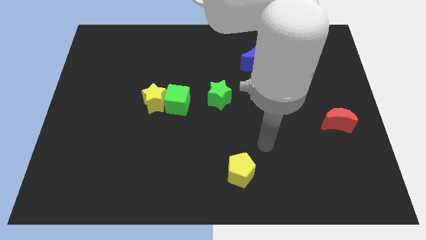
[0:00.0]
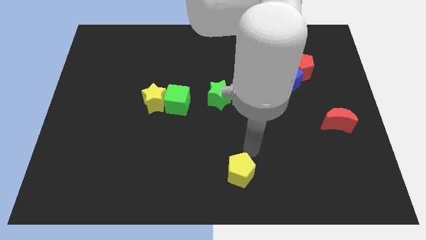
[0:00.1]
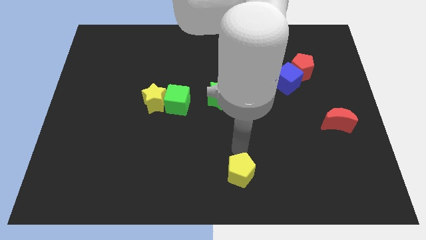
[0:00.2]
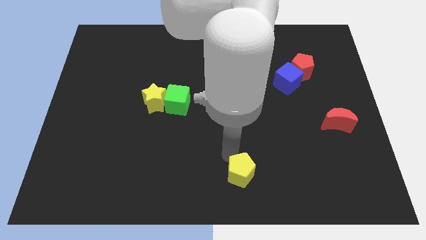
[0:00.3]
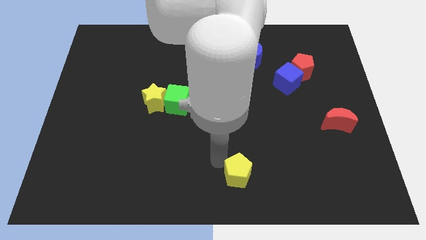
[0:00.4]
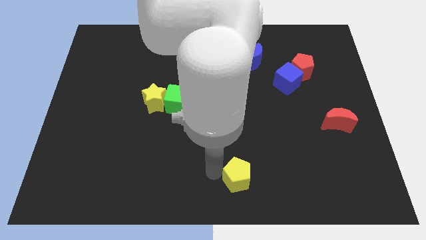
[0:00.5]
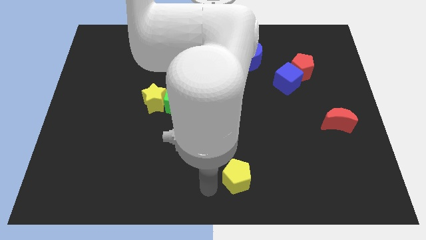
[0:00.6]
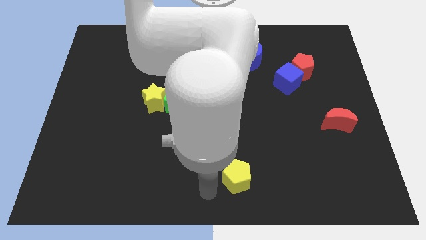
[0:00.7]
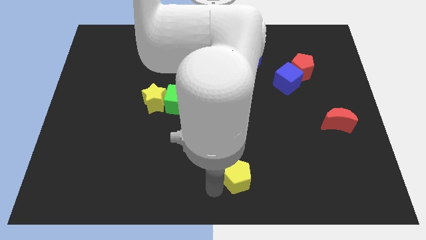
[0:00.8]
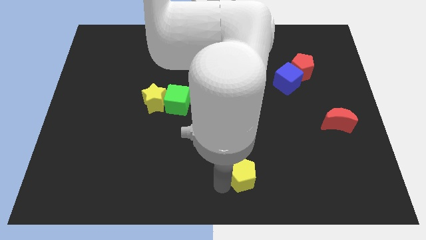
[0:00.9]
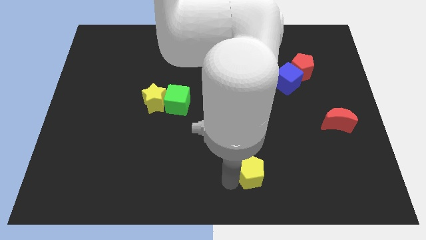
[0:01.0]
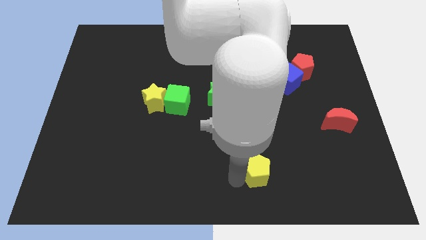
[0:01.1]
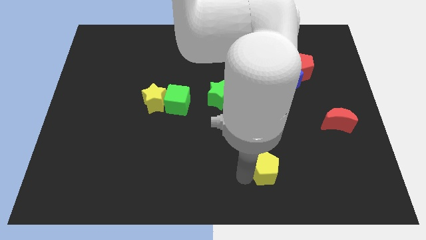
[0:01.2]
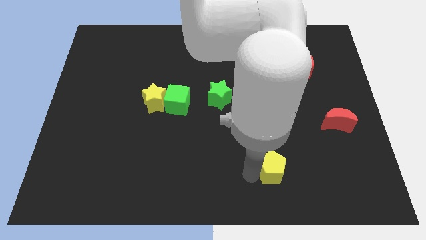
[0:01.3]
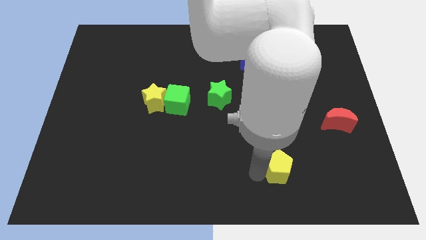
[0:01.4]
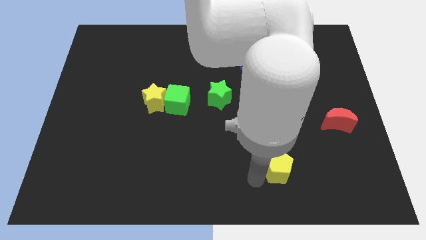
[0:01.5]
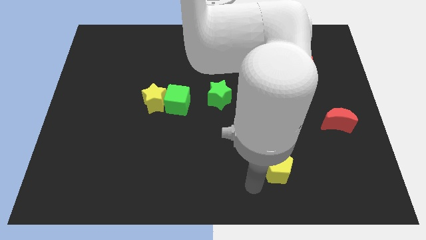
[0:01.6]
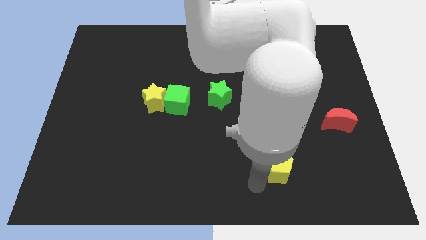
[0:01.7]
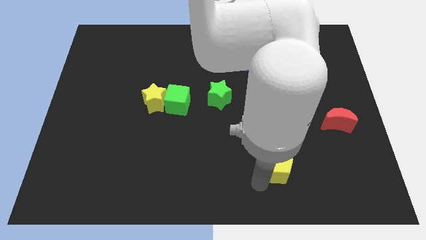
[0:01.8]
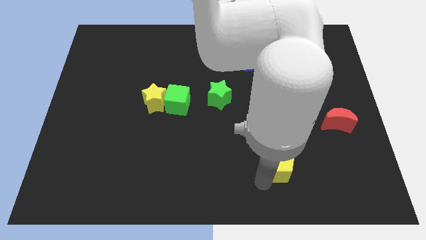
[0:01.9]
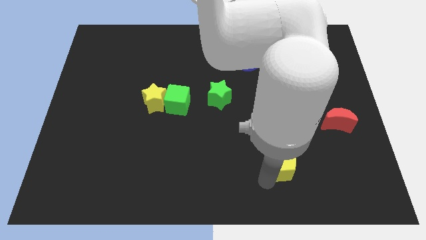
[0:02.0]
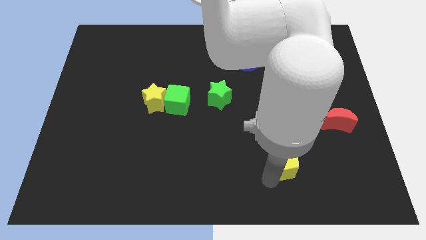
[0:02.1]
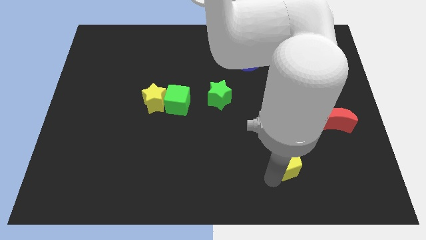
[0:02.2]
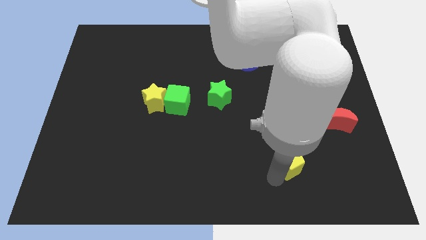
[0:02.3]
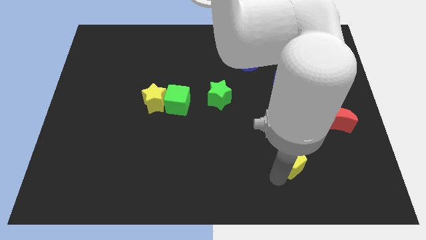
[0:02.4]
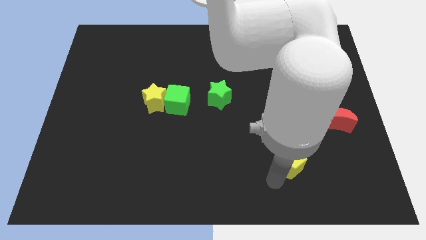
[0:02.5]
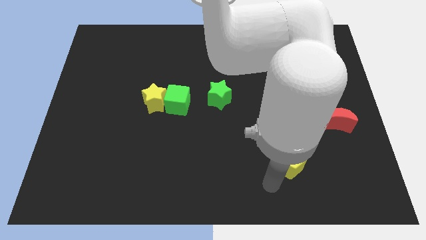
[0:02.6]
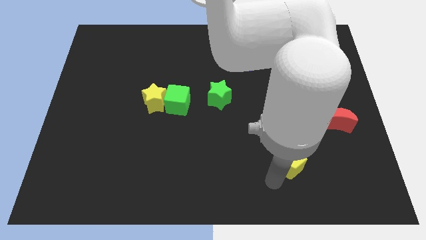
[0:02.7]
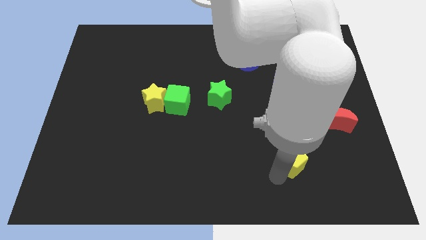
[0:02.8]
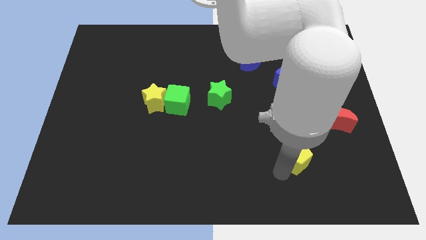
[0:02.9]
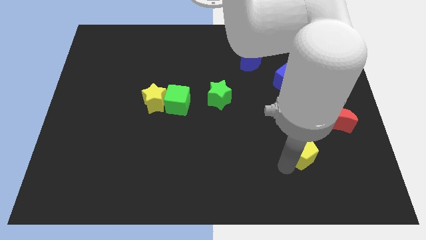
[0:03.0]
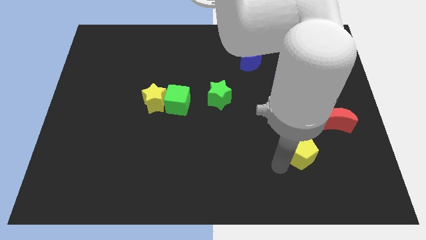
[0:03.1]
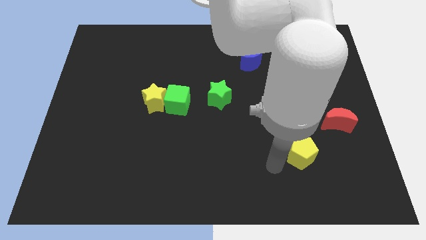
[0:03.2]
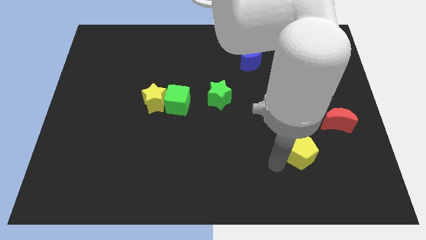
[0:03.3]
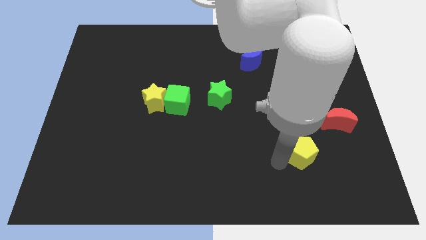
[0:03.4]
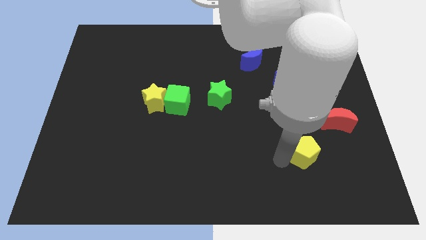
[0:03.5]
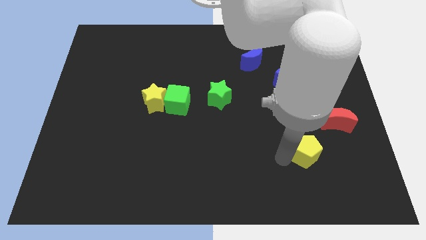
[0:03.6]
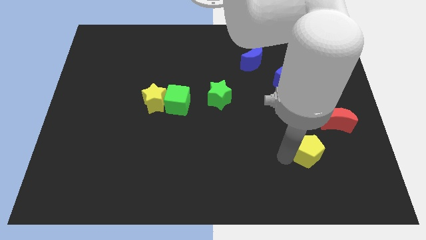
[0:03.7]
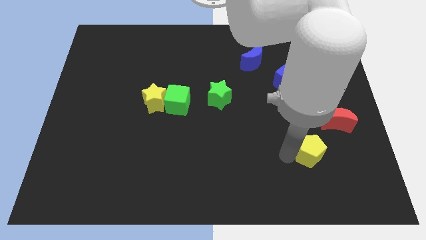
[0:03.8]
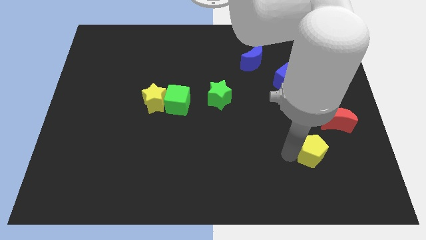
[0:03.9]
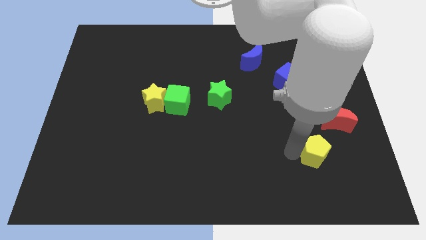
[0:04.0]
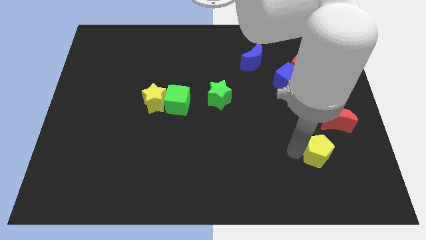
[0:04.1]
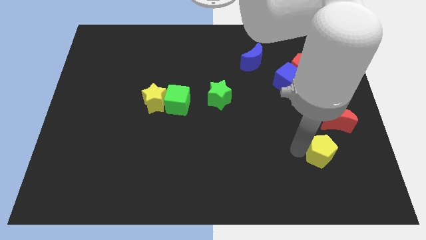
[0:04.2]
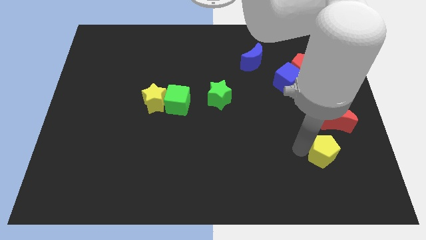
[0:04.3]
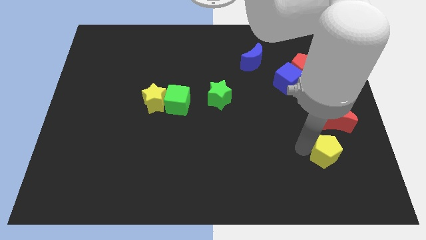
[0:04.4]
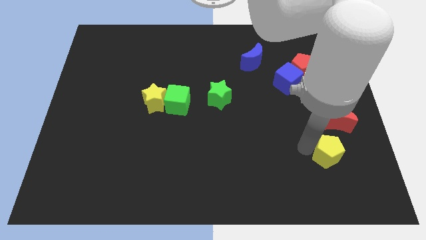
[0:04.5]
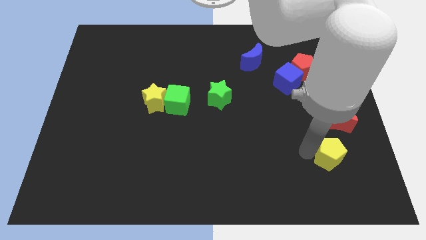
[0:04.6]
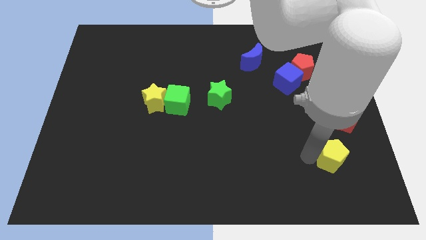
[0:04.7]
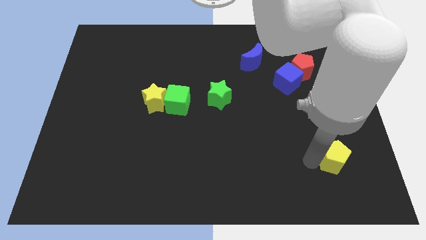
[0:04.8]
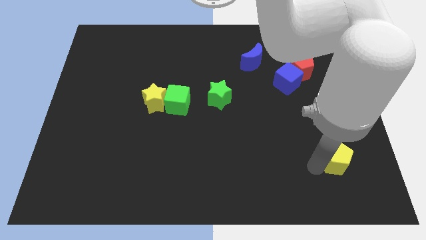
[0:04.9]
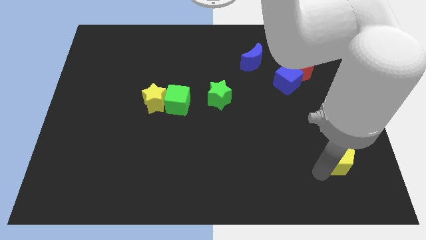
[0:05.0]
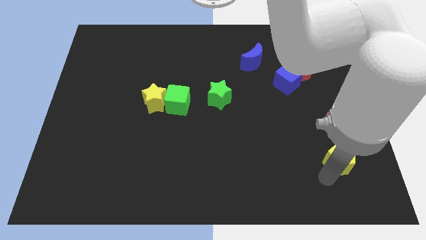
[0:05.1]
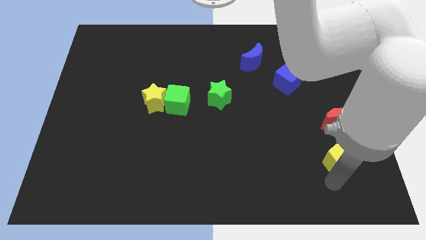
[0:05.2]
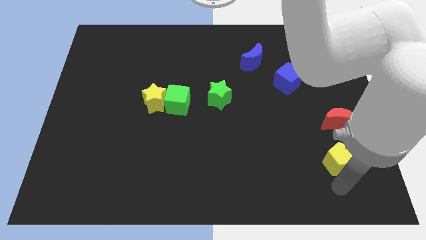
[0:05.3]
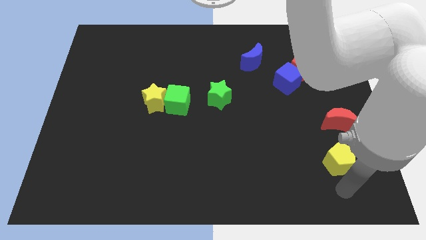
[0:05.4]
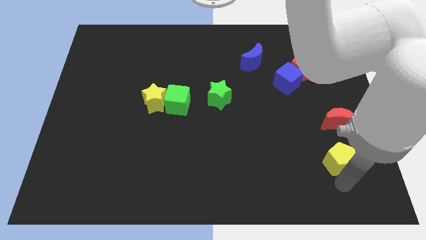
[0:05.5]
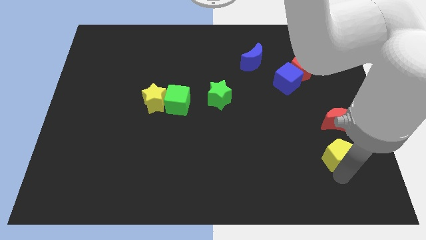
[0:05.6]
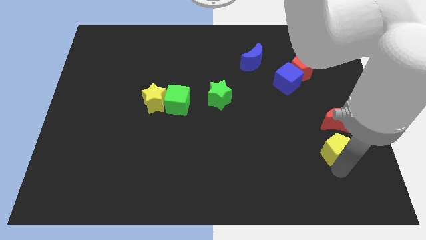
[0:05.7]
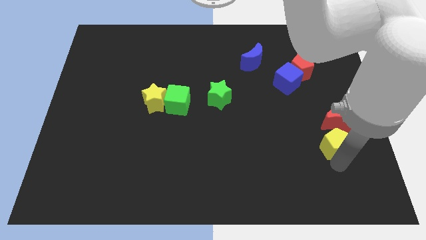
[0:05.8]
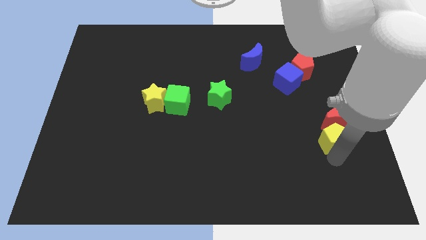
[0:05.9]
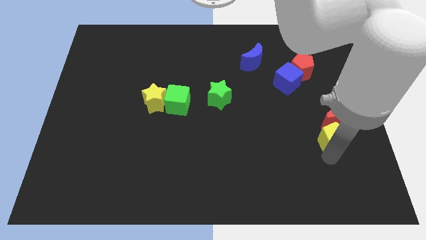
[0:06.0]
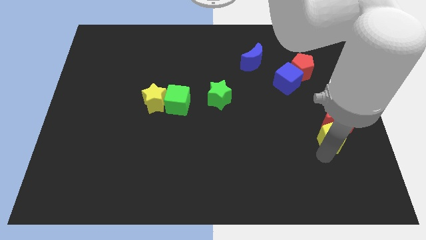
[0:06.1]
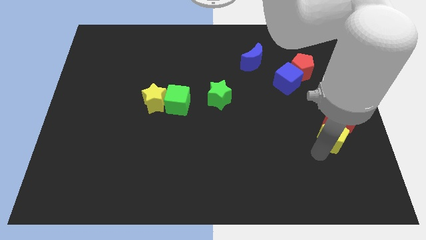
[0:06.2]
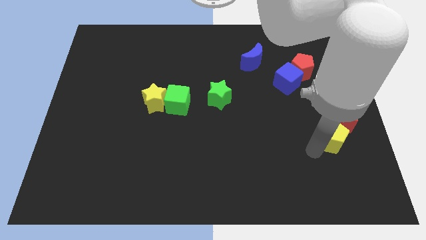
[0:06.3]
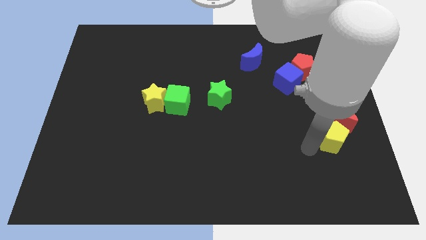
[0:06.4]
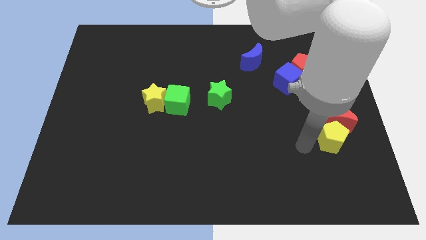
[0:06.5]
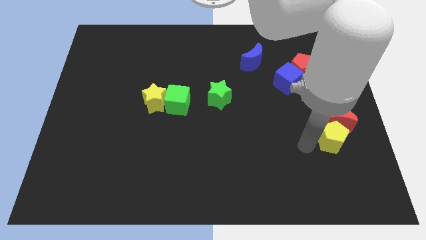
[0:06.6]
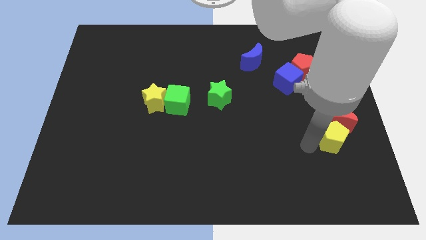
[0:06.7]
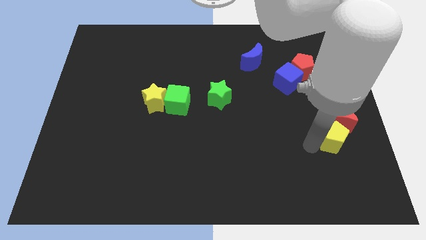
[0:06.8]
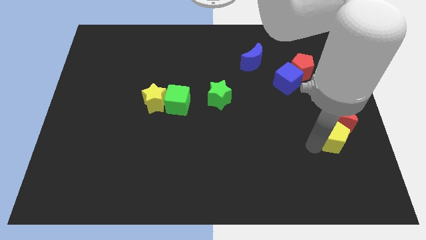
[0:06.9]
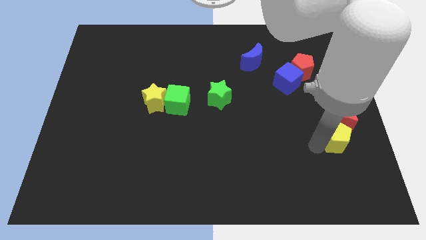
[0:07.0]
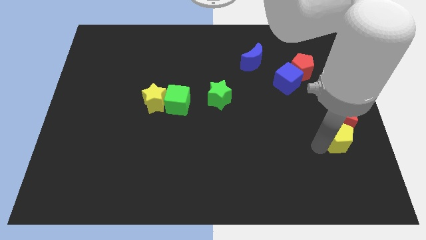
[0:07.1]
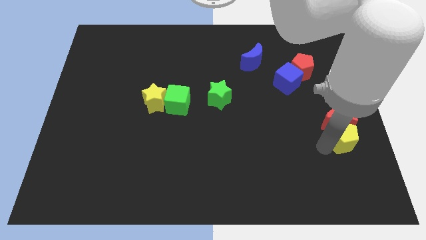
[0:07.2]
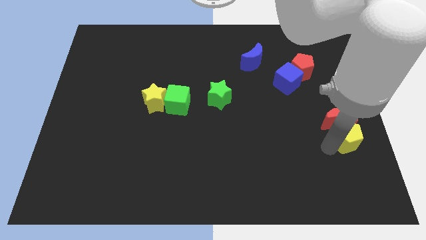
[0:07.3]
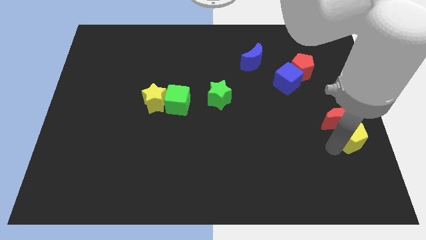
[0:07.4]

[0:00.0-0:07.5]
put the yellow pentagon to the right side of the board
